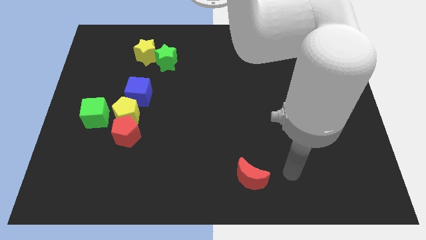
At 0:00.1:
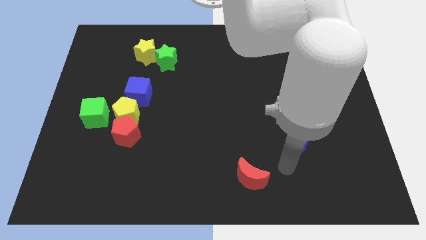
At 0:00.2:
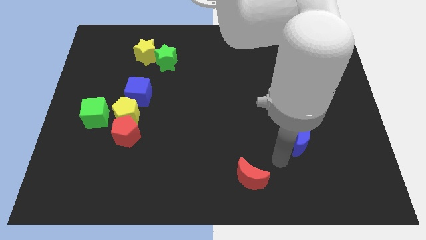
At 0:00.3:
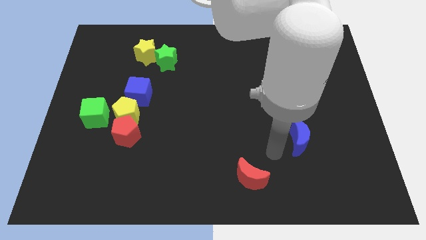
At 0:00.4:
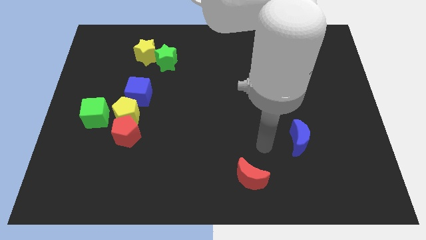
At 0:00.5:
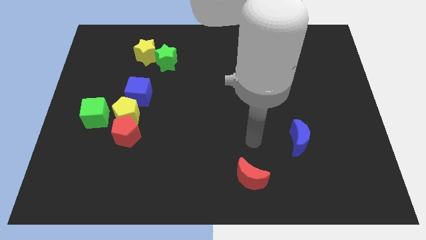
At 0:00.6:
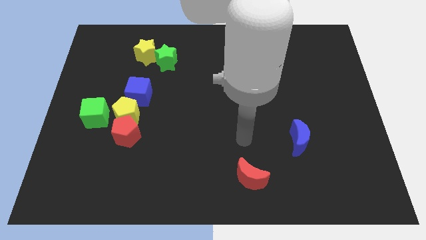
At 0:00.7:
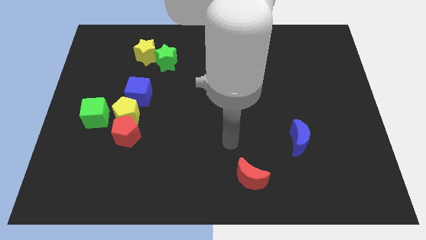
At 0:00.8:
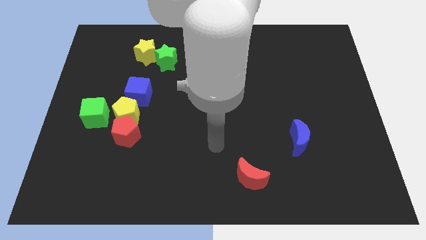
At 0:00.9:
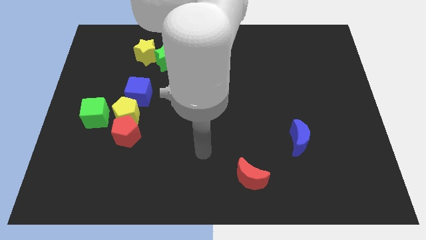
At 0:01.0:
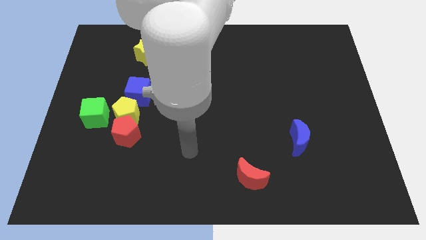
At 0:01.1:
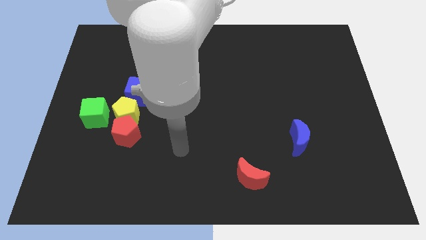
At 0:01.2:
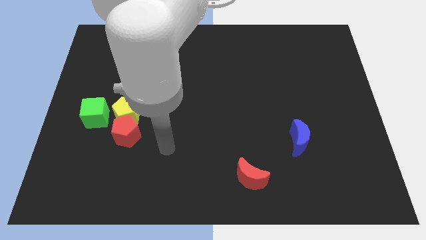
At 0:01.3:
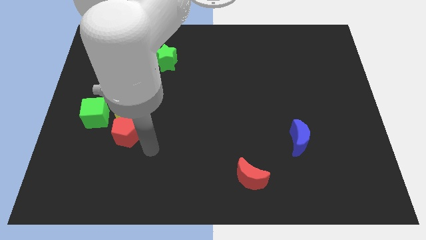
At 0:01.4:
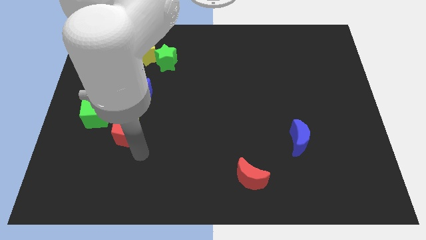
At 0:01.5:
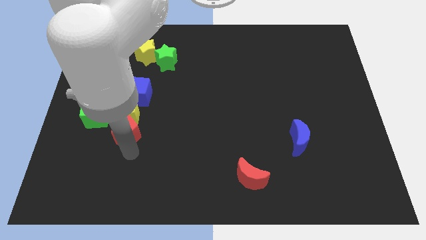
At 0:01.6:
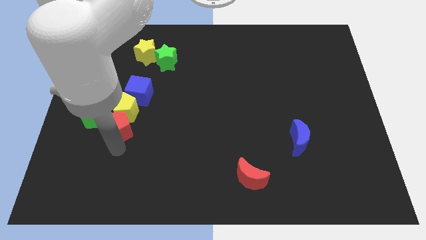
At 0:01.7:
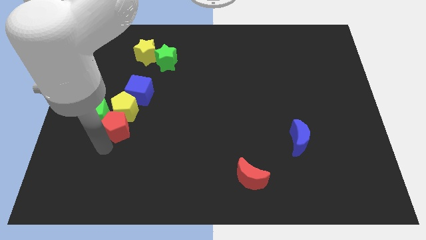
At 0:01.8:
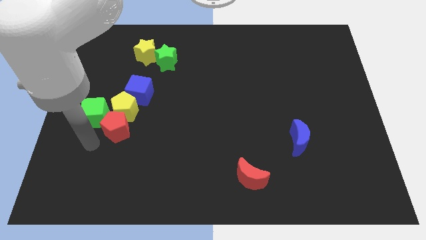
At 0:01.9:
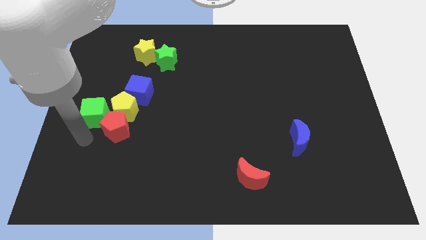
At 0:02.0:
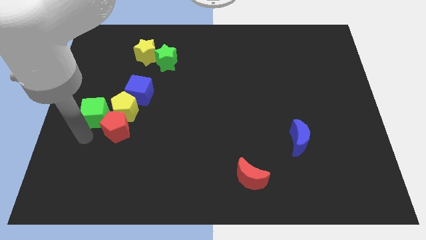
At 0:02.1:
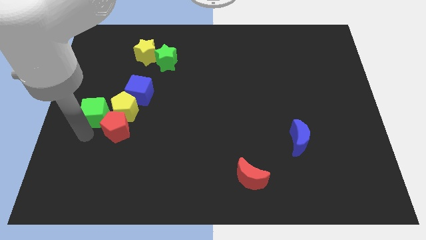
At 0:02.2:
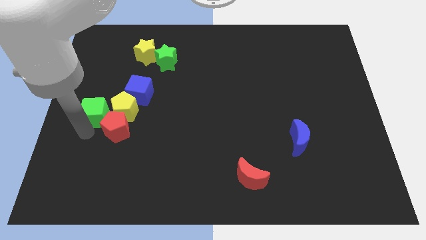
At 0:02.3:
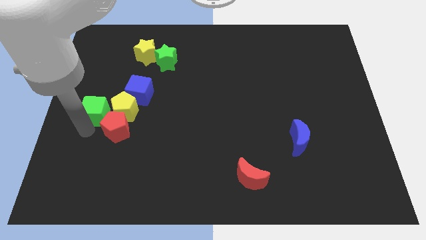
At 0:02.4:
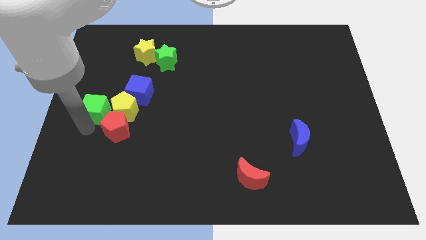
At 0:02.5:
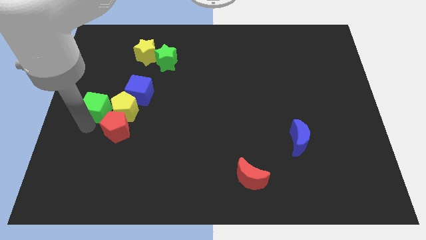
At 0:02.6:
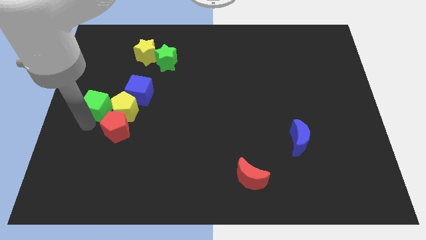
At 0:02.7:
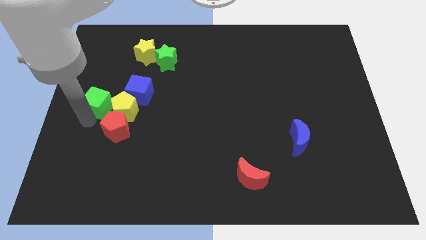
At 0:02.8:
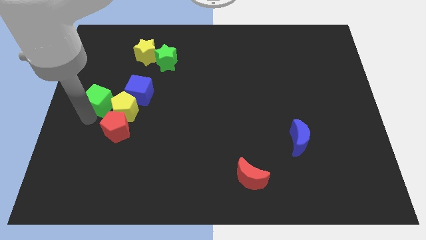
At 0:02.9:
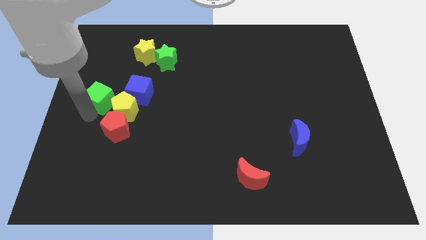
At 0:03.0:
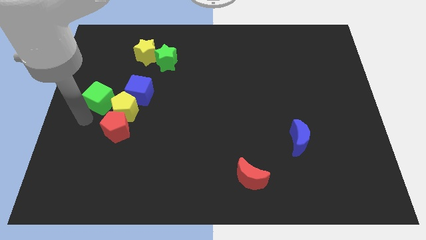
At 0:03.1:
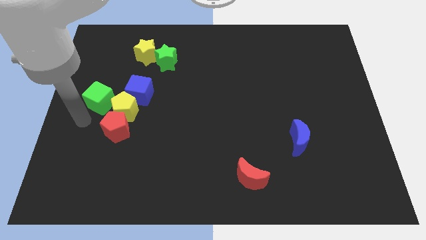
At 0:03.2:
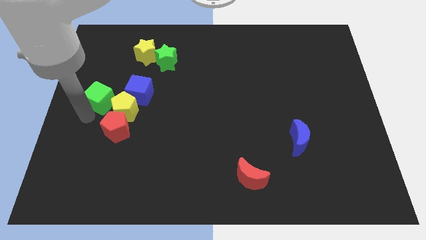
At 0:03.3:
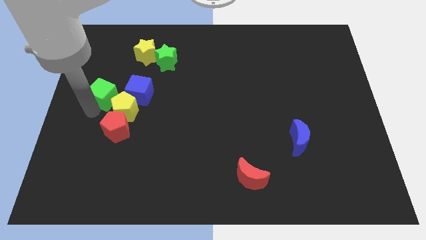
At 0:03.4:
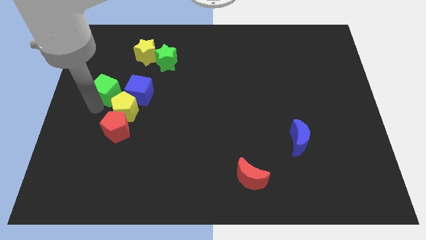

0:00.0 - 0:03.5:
push the green cube upwards a little

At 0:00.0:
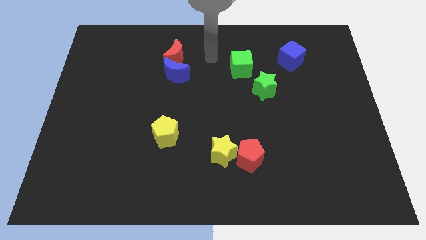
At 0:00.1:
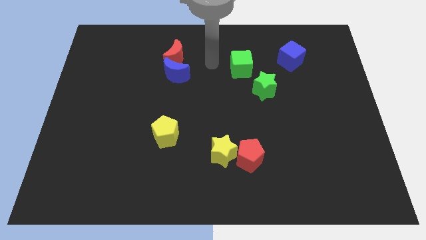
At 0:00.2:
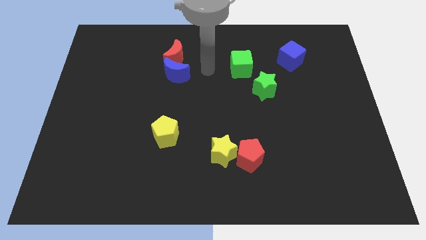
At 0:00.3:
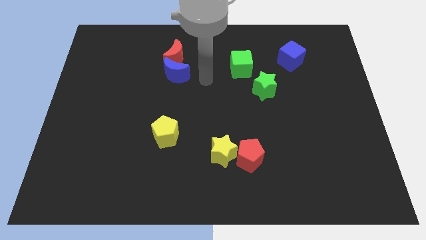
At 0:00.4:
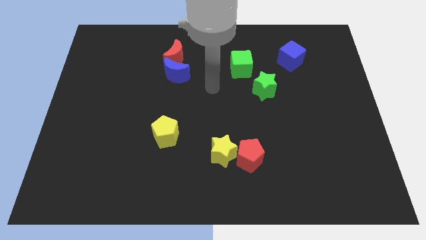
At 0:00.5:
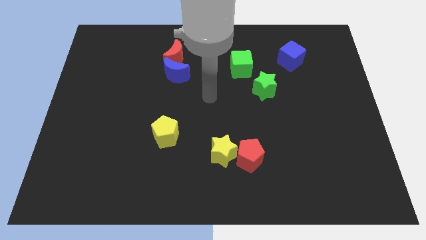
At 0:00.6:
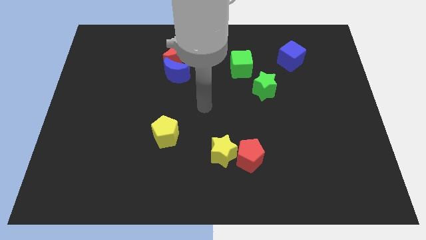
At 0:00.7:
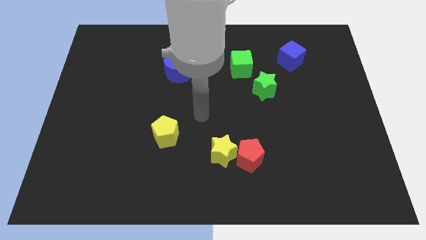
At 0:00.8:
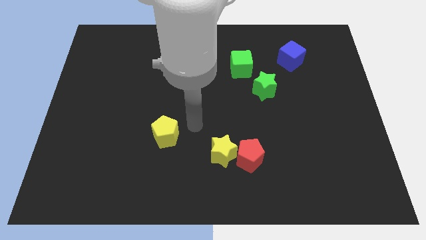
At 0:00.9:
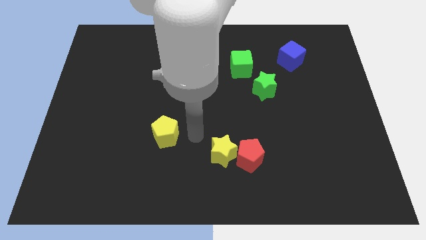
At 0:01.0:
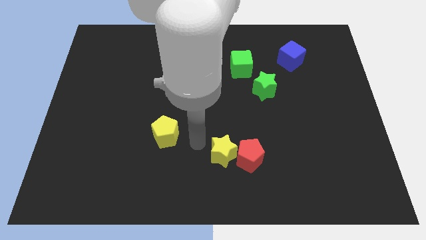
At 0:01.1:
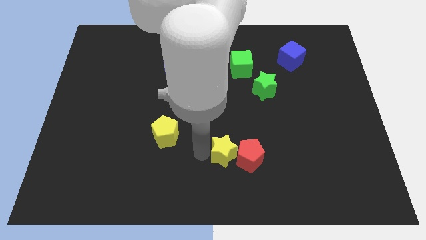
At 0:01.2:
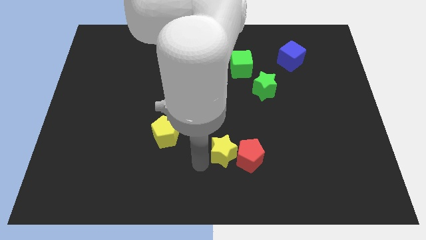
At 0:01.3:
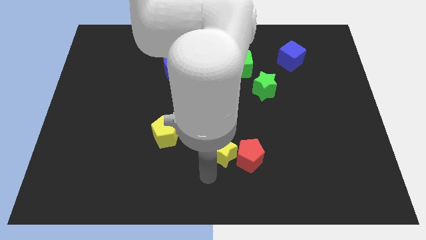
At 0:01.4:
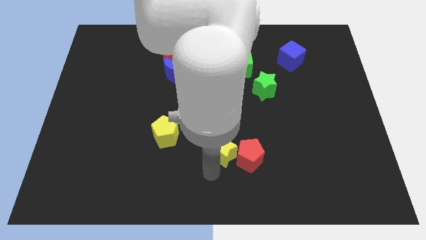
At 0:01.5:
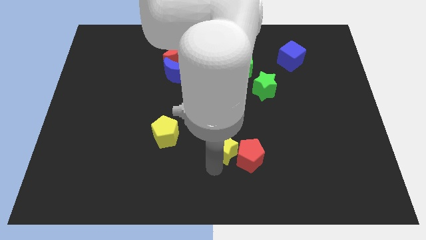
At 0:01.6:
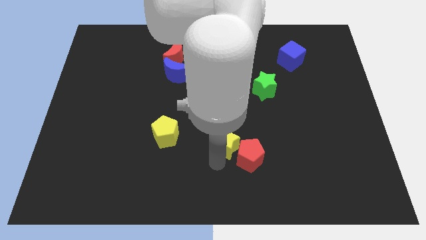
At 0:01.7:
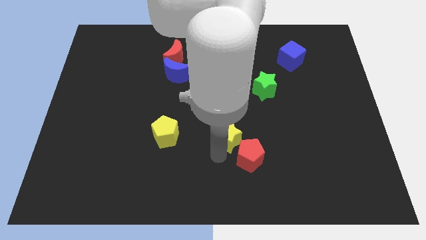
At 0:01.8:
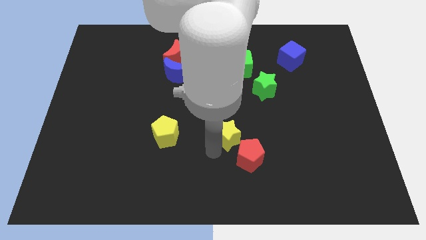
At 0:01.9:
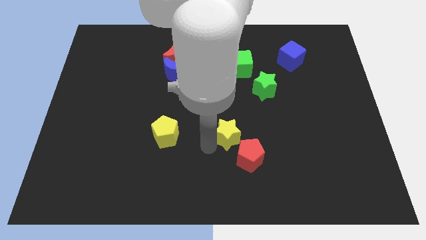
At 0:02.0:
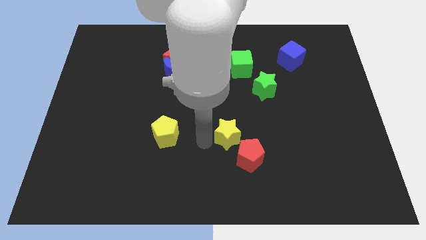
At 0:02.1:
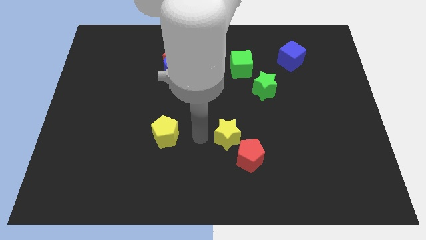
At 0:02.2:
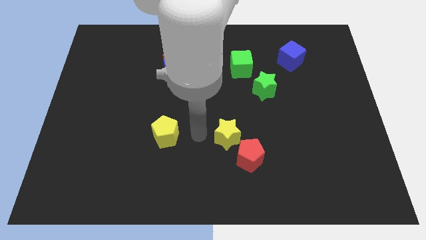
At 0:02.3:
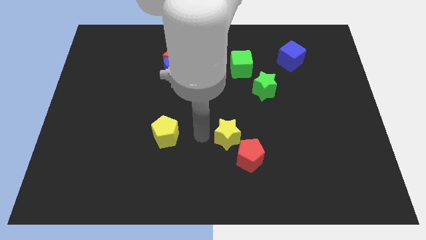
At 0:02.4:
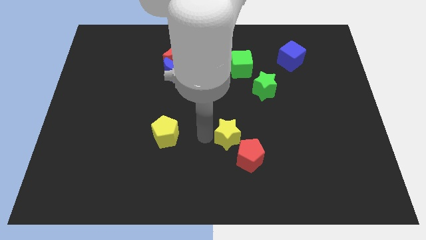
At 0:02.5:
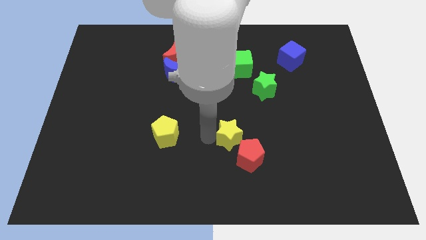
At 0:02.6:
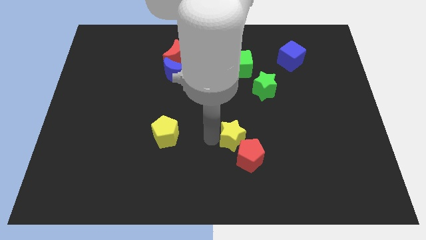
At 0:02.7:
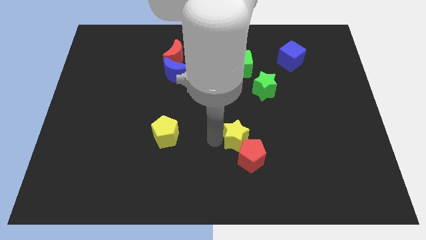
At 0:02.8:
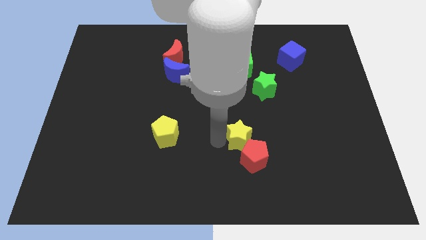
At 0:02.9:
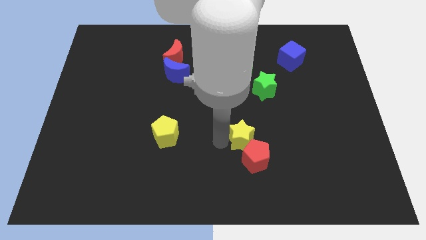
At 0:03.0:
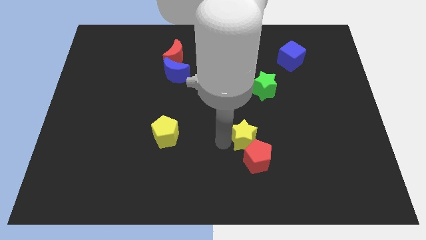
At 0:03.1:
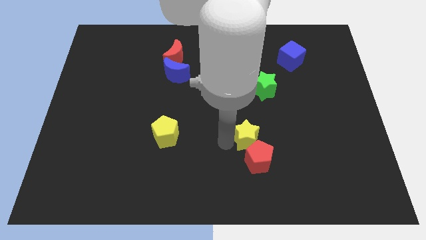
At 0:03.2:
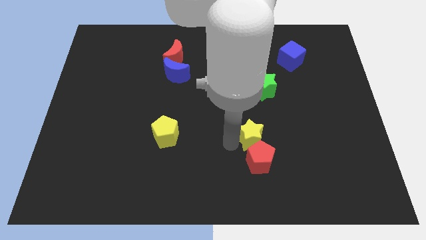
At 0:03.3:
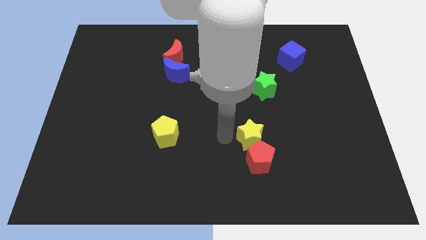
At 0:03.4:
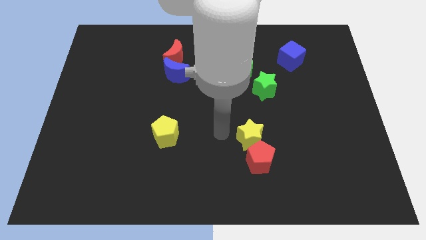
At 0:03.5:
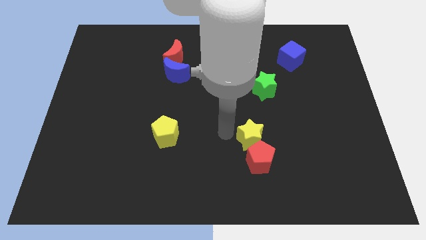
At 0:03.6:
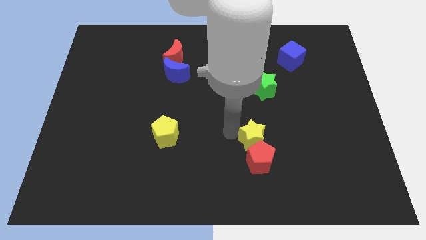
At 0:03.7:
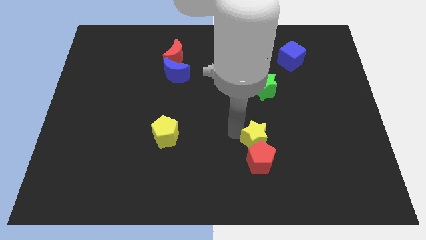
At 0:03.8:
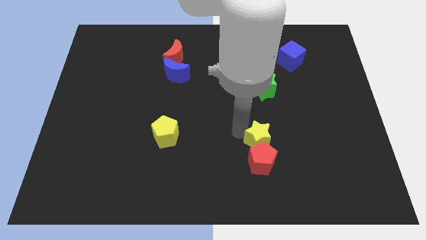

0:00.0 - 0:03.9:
move the yellow star right a little bit

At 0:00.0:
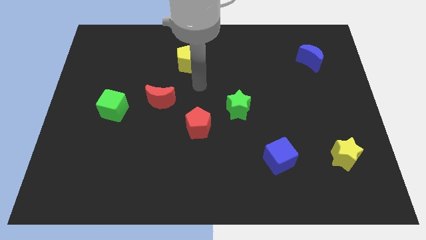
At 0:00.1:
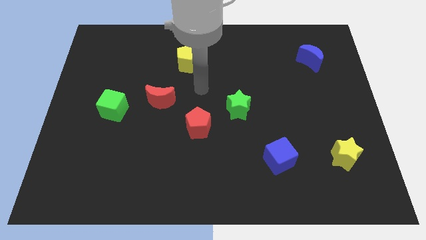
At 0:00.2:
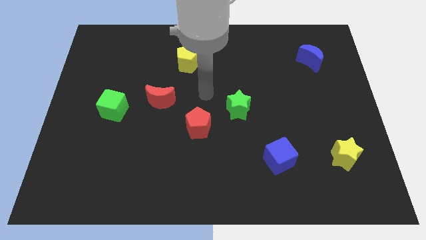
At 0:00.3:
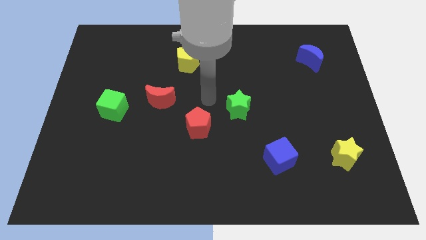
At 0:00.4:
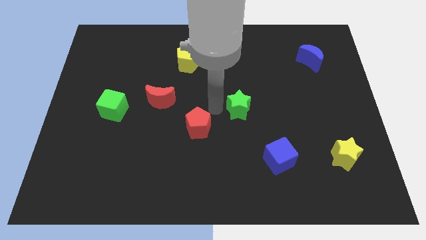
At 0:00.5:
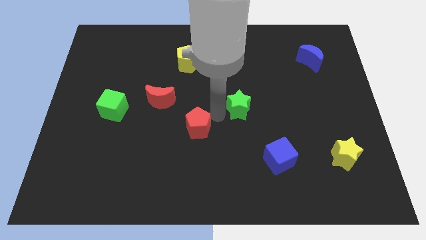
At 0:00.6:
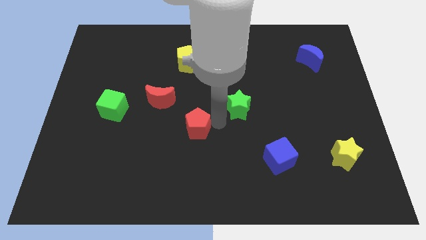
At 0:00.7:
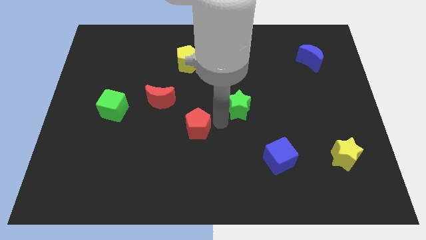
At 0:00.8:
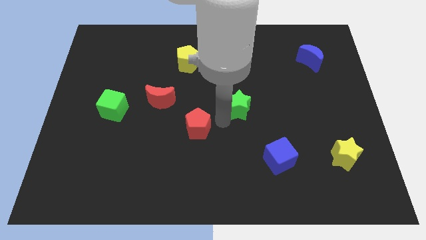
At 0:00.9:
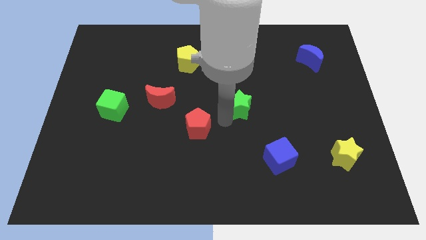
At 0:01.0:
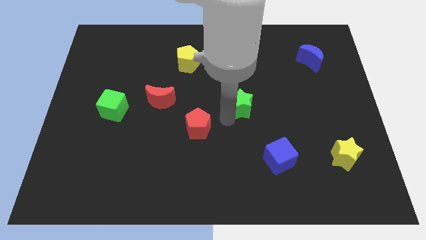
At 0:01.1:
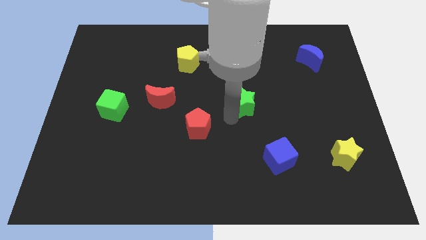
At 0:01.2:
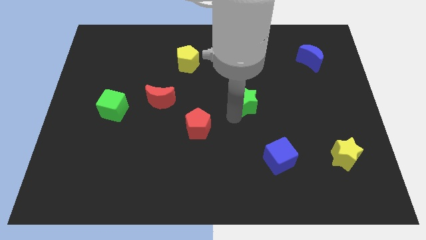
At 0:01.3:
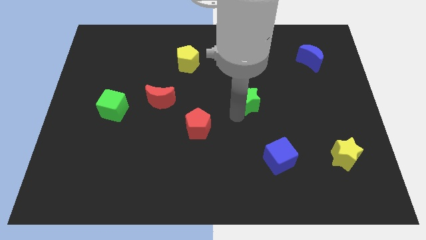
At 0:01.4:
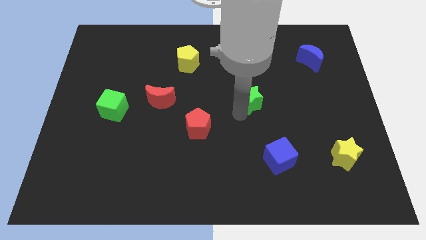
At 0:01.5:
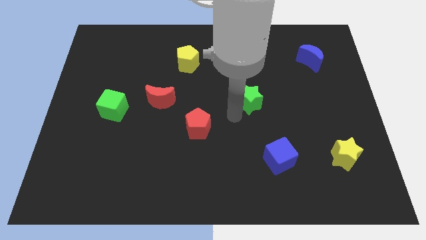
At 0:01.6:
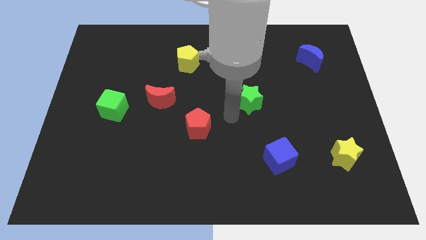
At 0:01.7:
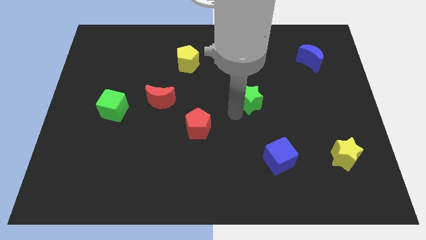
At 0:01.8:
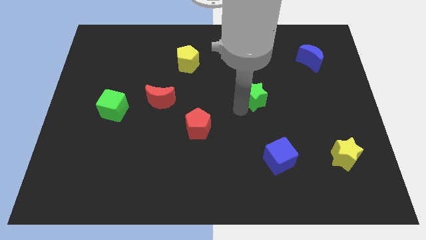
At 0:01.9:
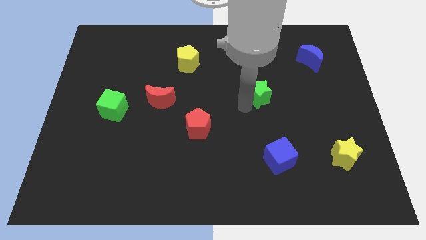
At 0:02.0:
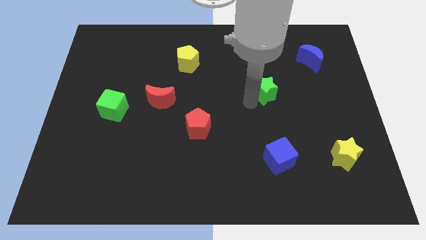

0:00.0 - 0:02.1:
push the green star somewhat upwards and then right
